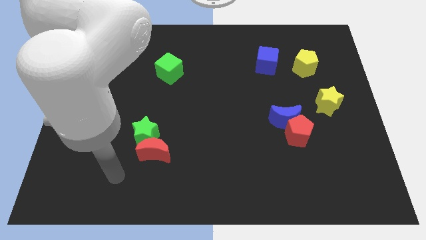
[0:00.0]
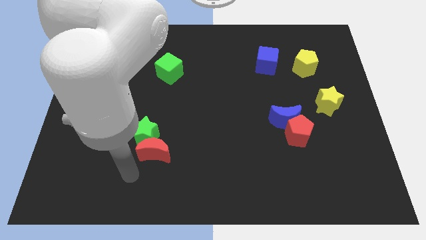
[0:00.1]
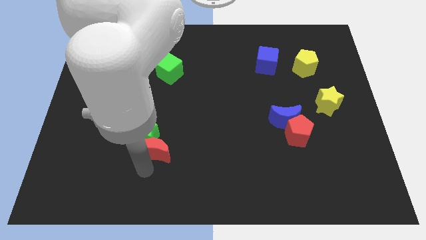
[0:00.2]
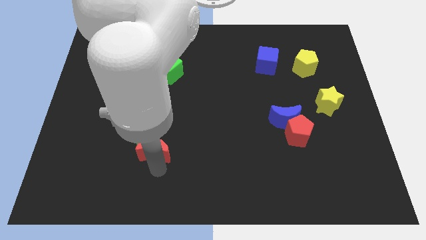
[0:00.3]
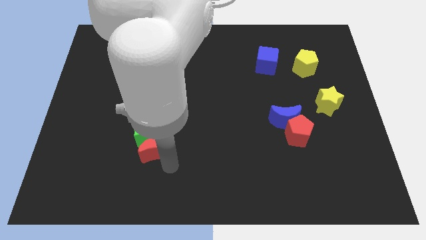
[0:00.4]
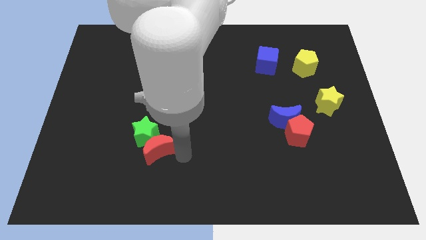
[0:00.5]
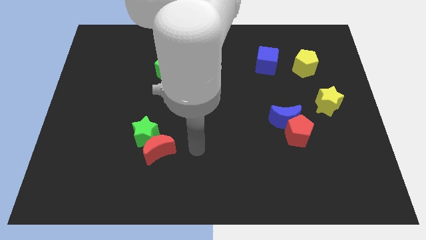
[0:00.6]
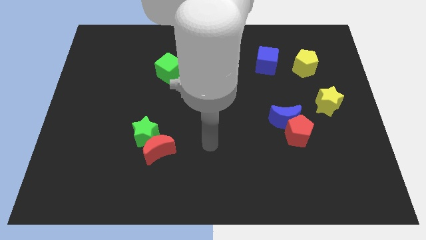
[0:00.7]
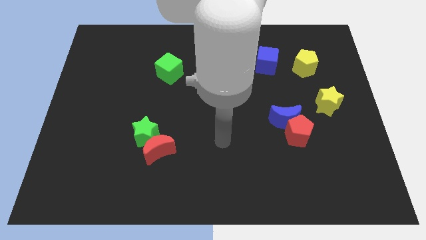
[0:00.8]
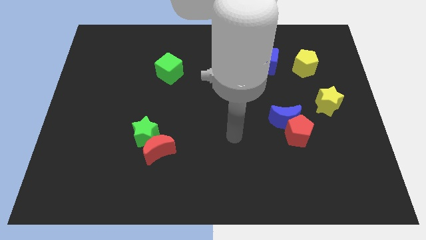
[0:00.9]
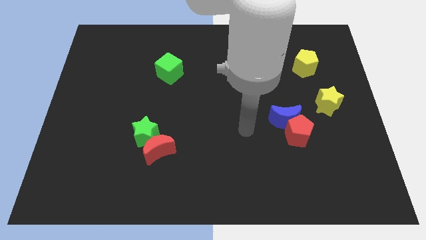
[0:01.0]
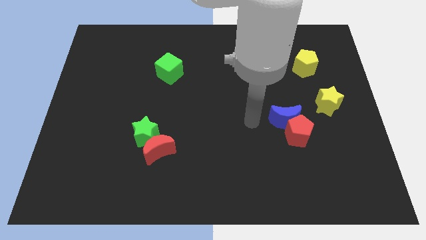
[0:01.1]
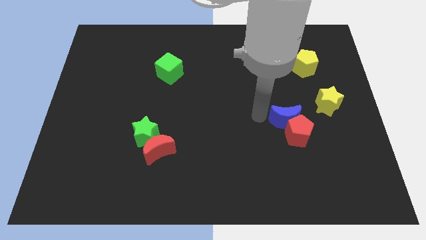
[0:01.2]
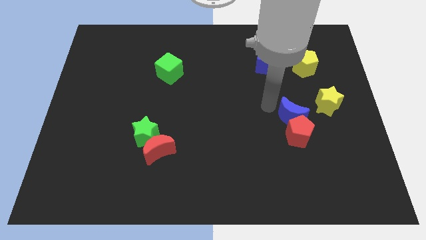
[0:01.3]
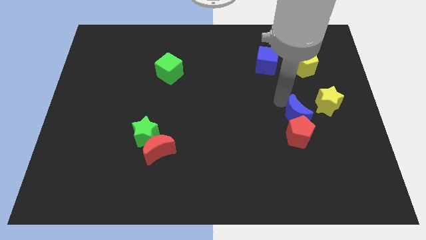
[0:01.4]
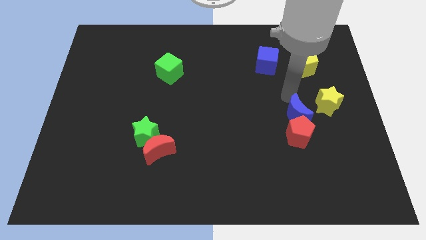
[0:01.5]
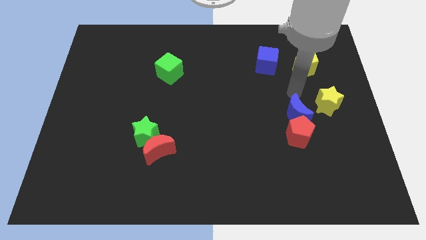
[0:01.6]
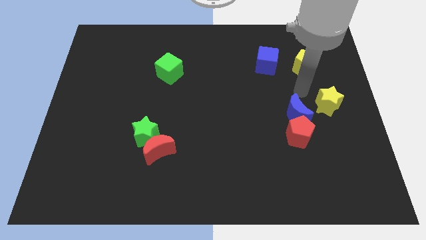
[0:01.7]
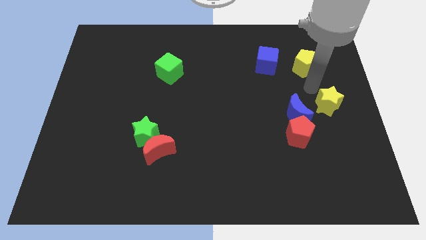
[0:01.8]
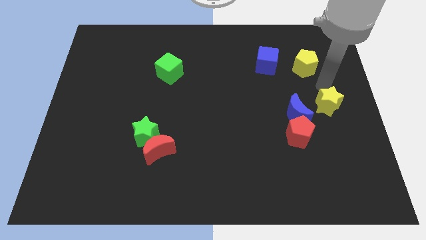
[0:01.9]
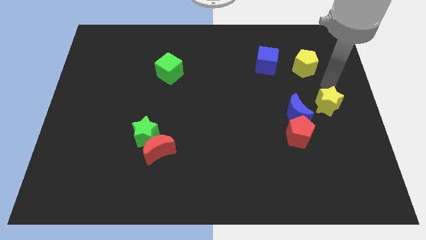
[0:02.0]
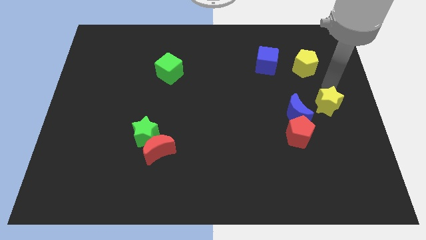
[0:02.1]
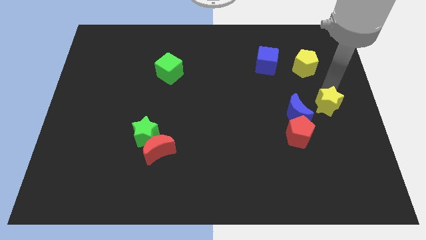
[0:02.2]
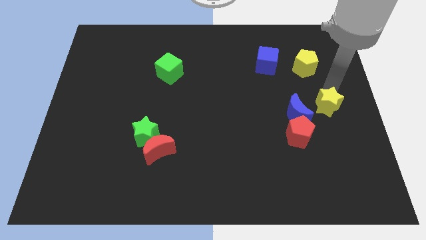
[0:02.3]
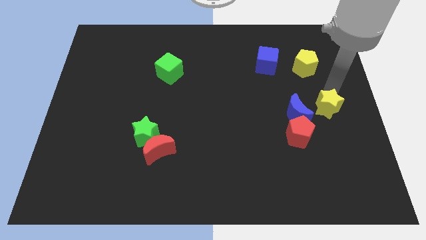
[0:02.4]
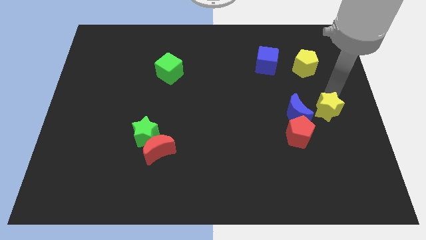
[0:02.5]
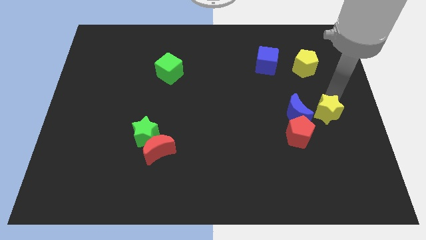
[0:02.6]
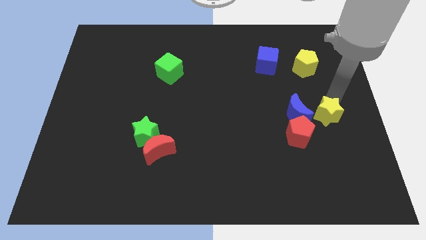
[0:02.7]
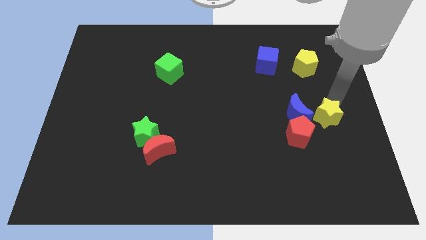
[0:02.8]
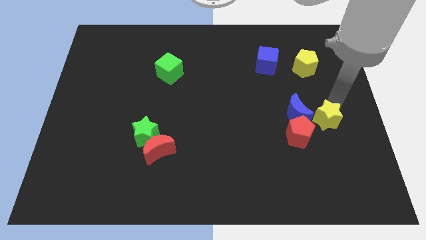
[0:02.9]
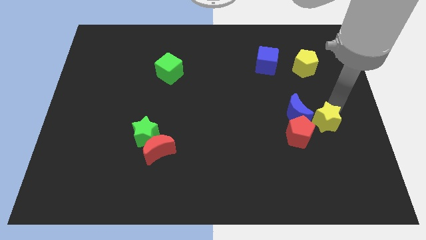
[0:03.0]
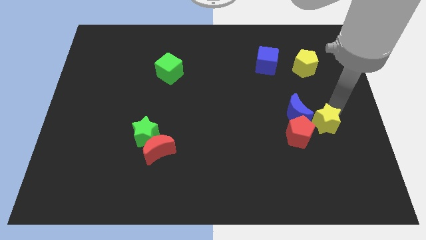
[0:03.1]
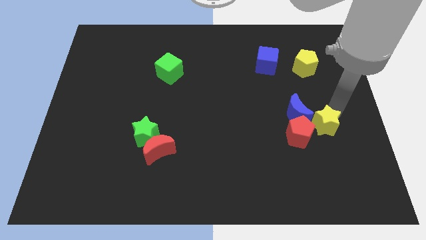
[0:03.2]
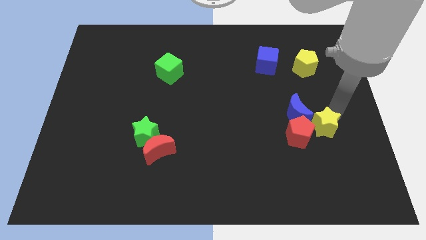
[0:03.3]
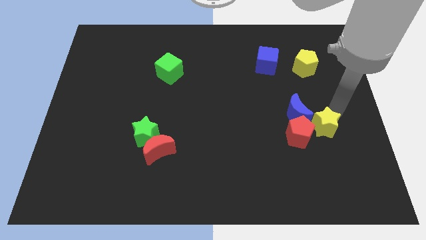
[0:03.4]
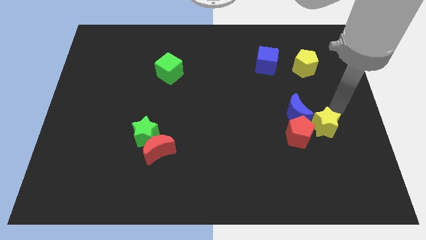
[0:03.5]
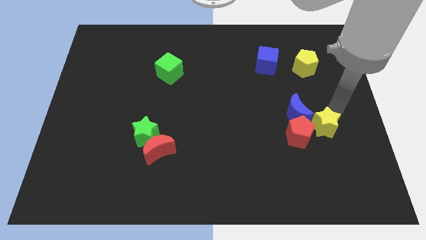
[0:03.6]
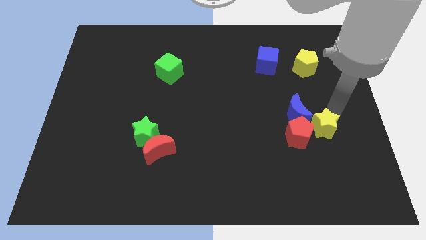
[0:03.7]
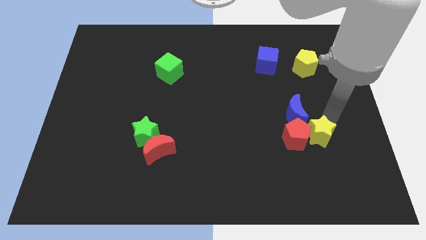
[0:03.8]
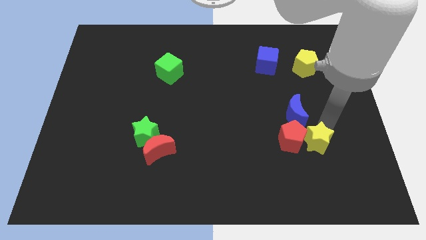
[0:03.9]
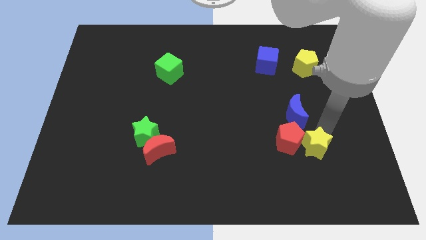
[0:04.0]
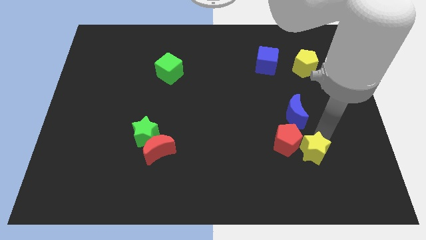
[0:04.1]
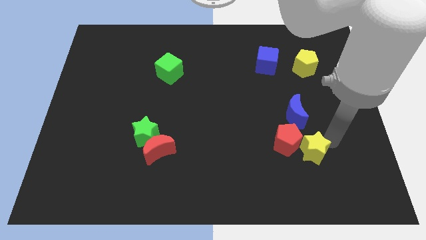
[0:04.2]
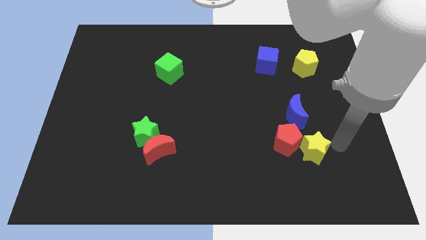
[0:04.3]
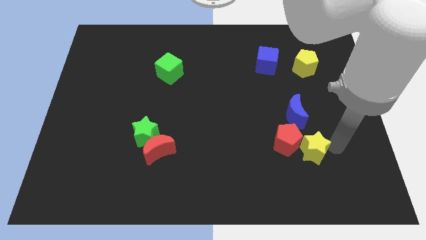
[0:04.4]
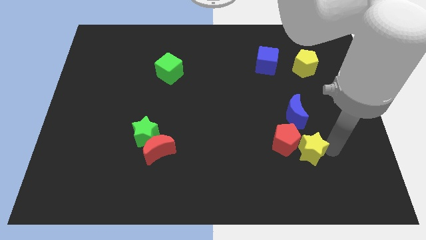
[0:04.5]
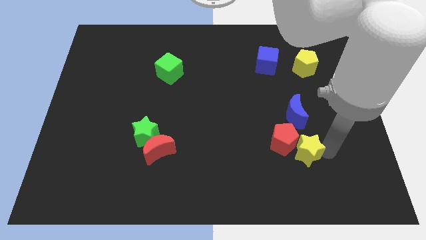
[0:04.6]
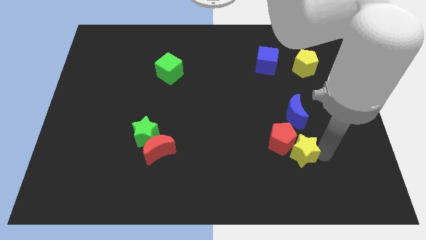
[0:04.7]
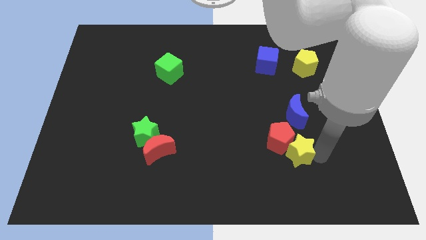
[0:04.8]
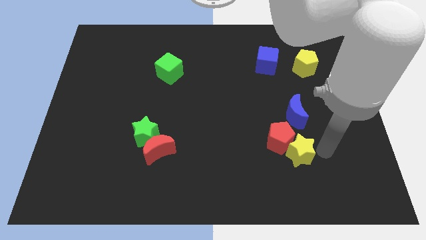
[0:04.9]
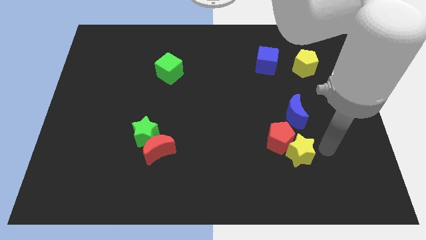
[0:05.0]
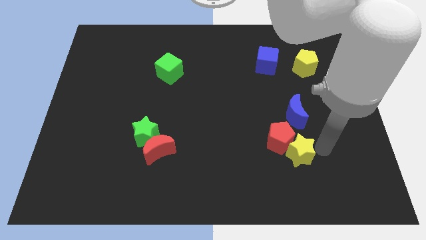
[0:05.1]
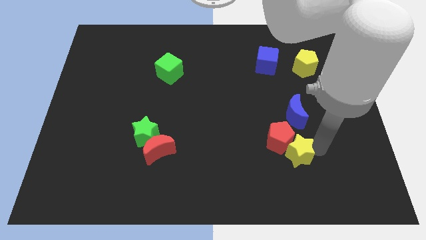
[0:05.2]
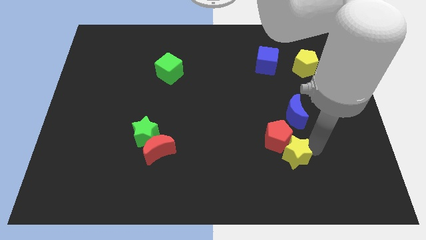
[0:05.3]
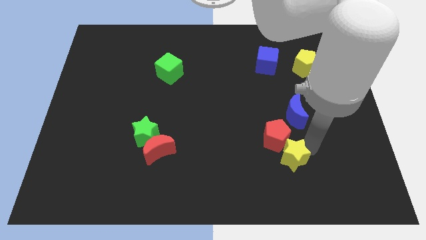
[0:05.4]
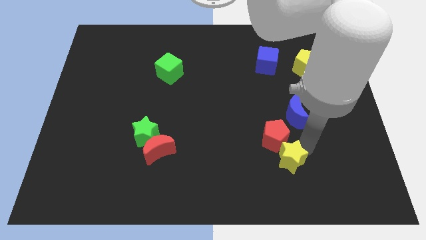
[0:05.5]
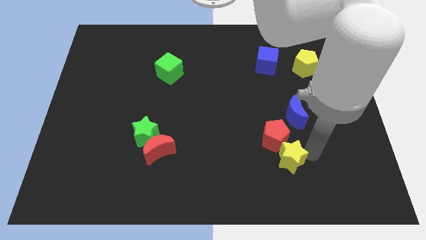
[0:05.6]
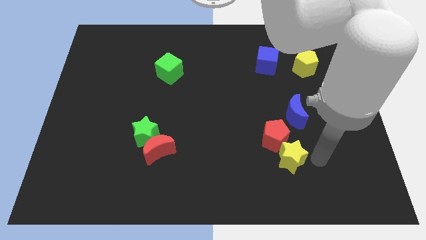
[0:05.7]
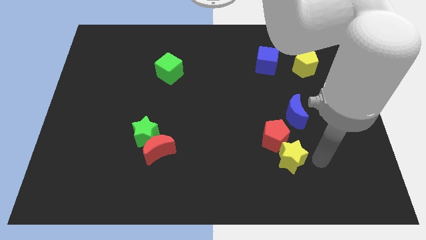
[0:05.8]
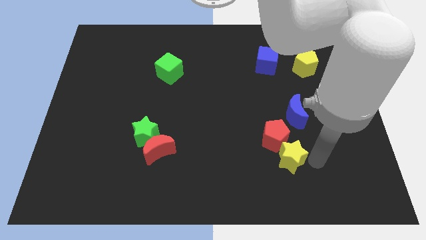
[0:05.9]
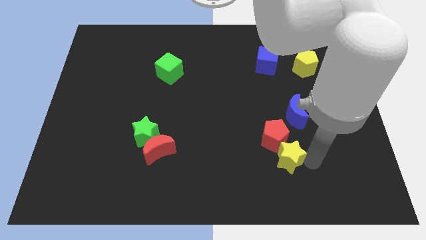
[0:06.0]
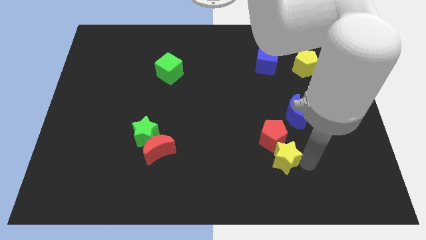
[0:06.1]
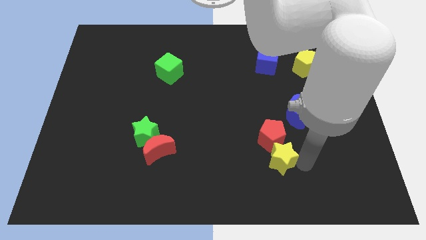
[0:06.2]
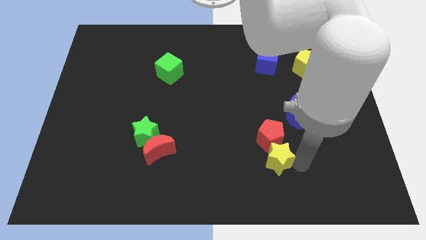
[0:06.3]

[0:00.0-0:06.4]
slide the yellow star to the bottom left side of the red pentagon

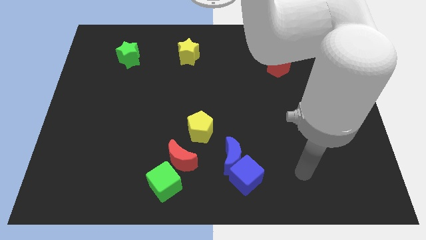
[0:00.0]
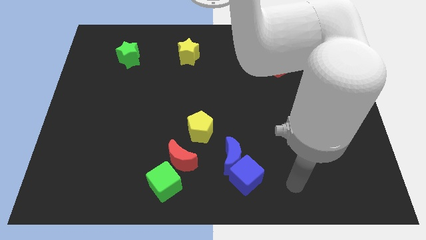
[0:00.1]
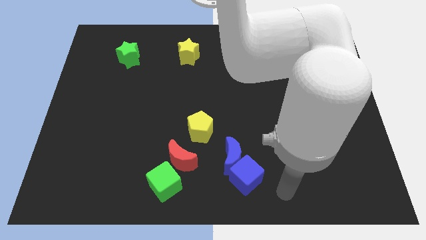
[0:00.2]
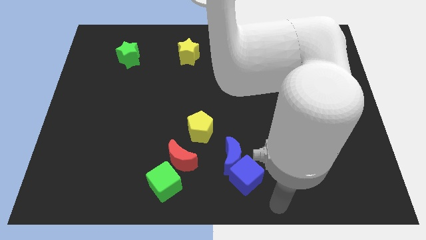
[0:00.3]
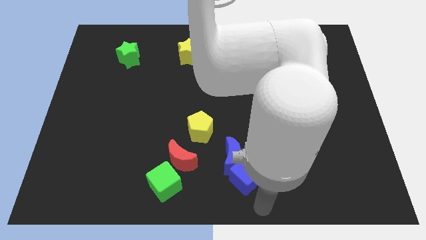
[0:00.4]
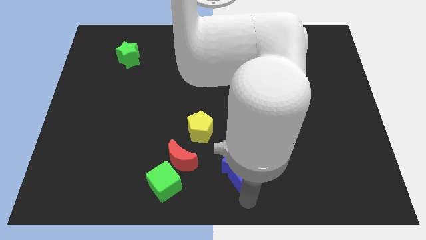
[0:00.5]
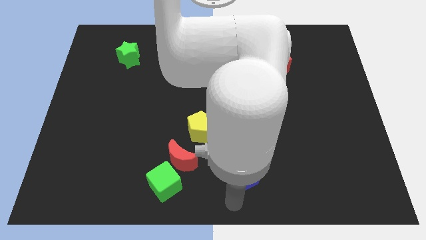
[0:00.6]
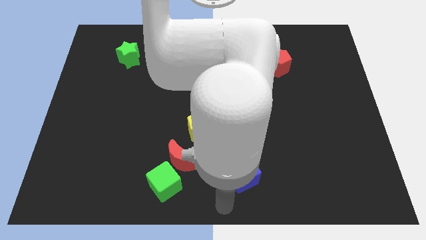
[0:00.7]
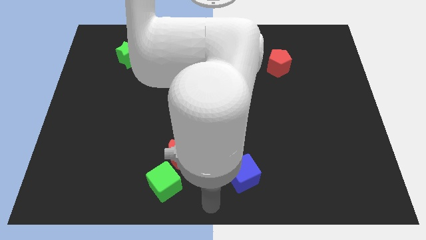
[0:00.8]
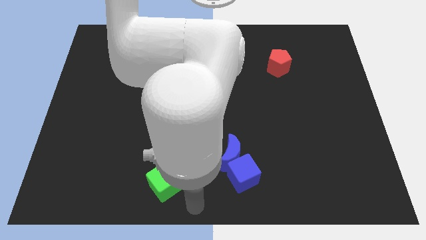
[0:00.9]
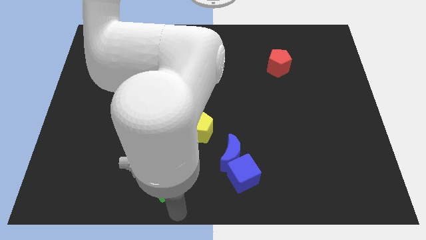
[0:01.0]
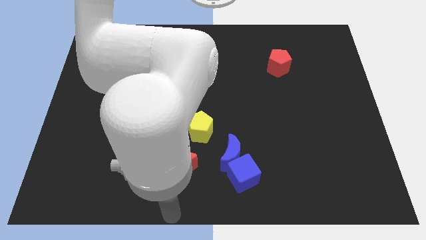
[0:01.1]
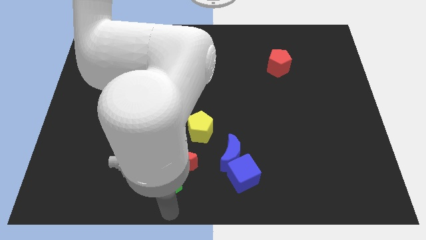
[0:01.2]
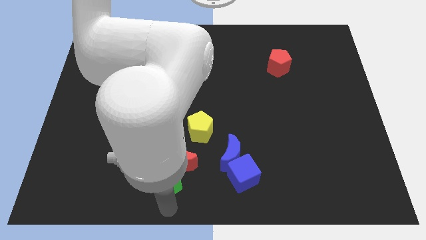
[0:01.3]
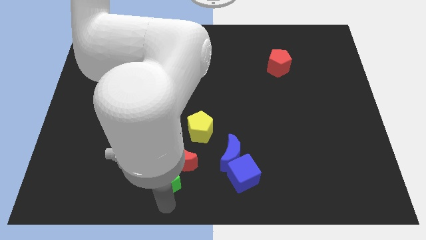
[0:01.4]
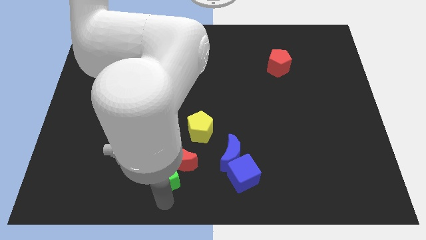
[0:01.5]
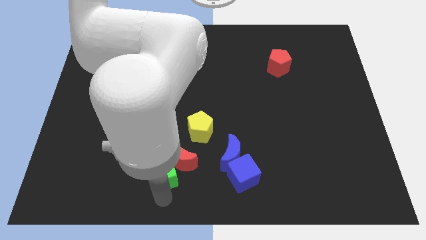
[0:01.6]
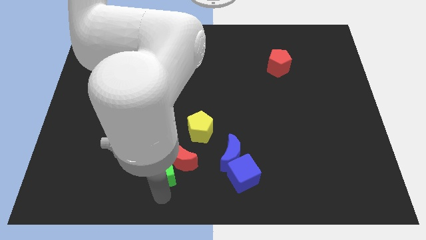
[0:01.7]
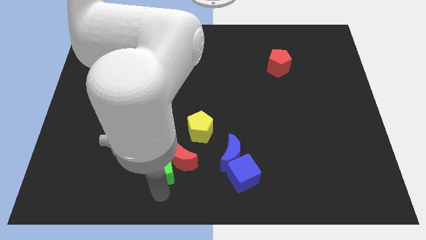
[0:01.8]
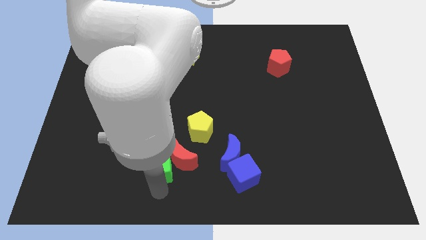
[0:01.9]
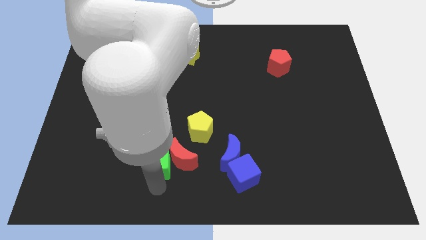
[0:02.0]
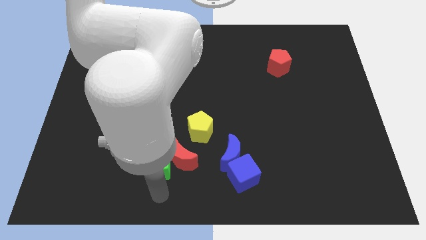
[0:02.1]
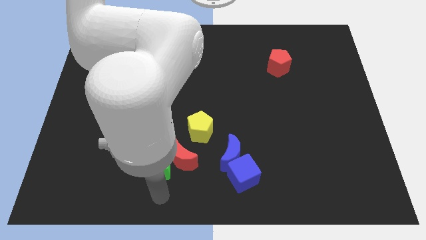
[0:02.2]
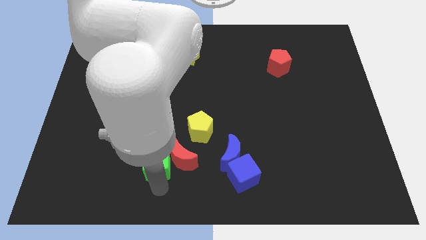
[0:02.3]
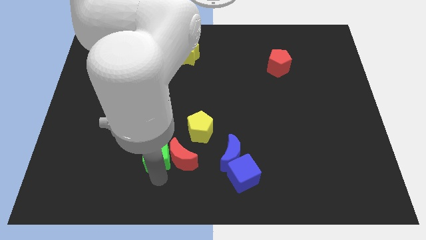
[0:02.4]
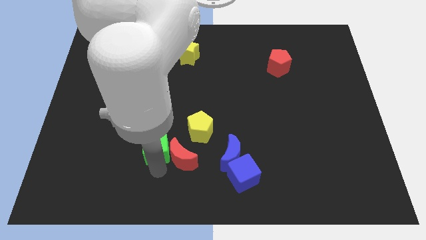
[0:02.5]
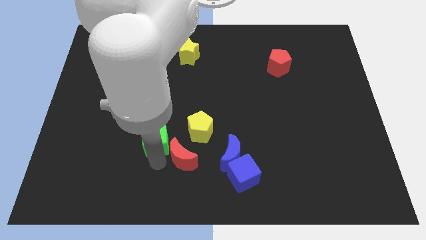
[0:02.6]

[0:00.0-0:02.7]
push the green cube left of the yellow pentagon
